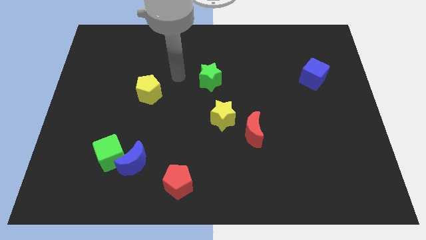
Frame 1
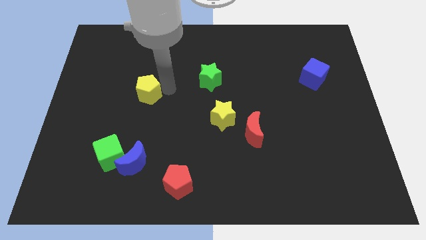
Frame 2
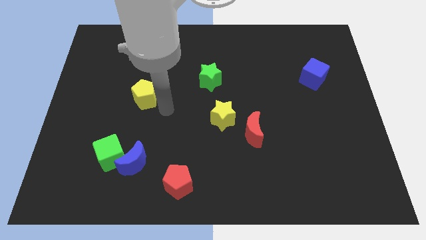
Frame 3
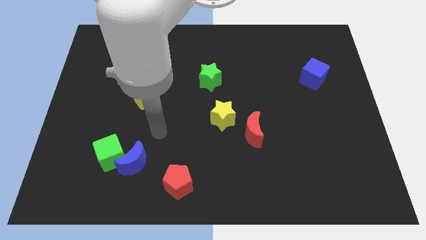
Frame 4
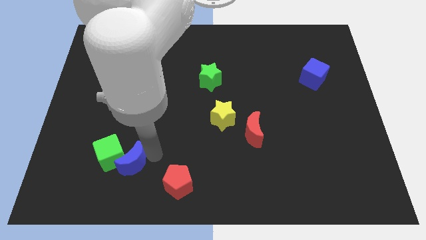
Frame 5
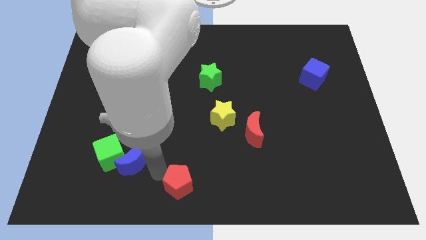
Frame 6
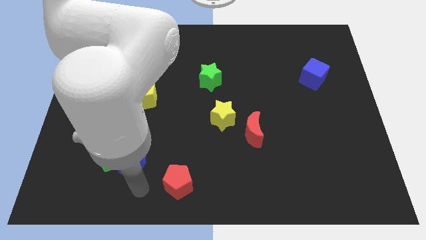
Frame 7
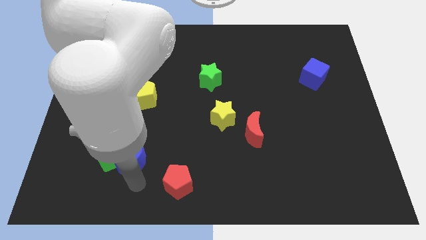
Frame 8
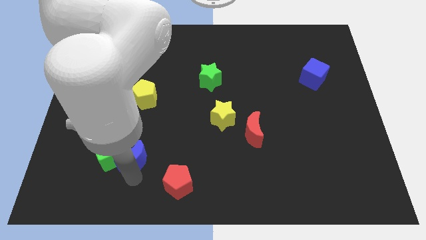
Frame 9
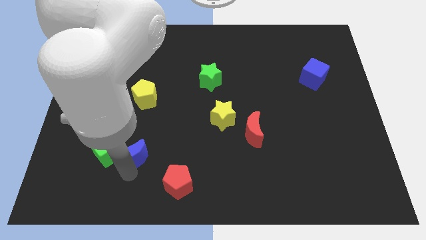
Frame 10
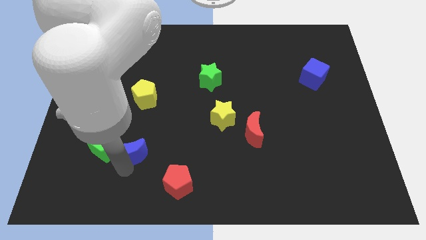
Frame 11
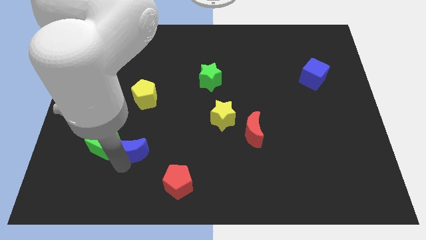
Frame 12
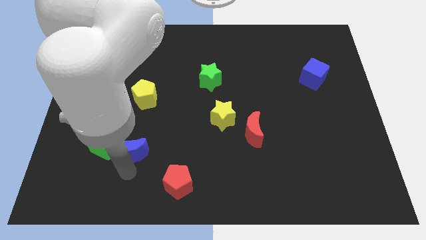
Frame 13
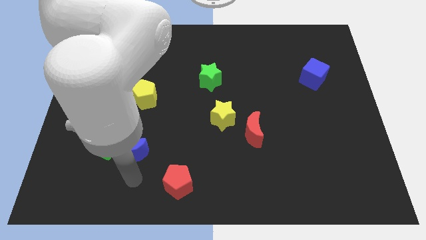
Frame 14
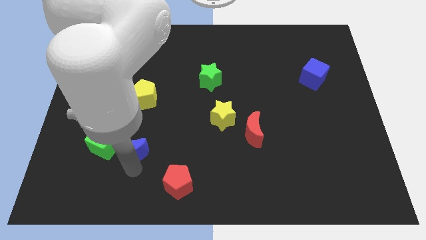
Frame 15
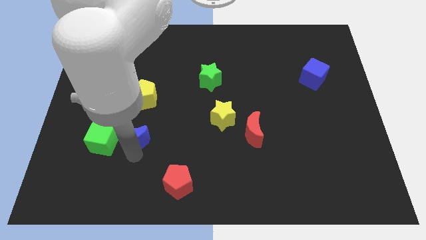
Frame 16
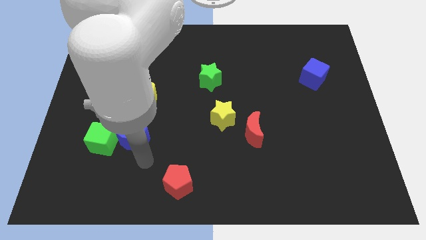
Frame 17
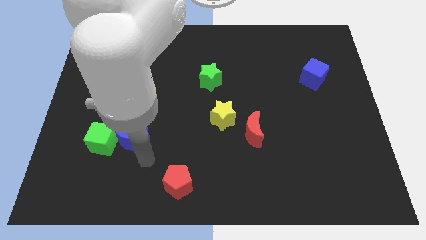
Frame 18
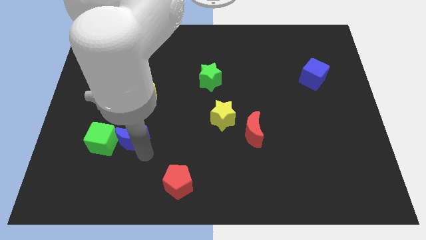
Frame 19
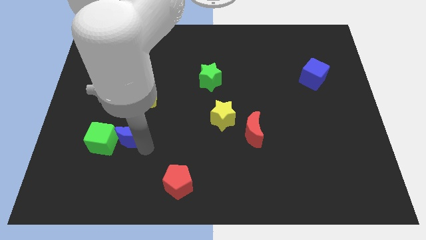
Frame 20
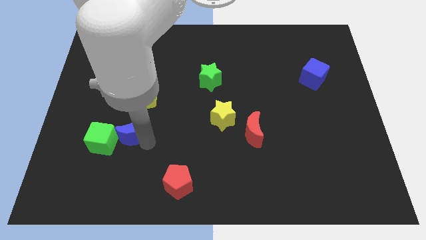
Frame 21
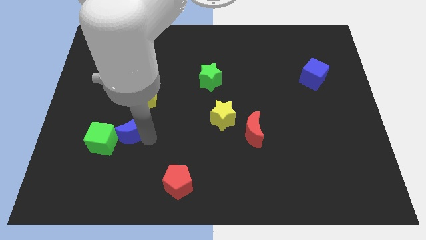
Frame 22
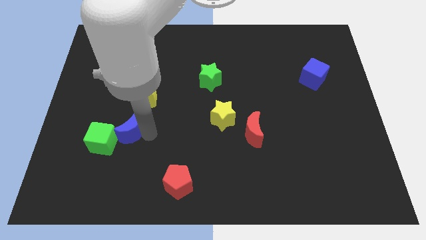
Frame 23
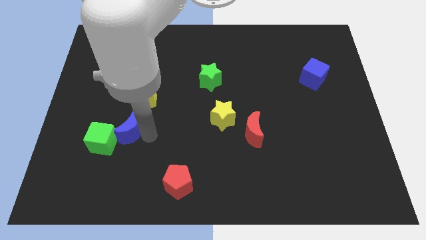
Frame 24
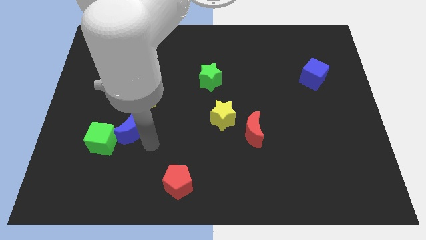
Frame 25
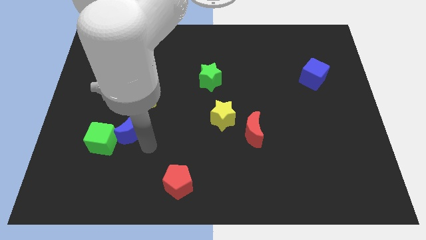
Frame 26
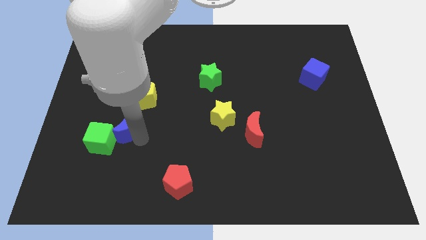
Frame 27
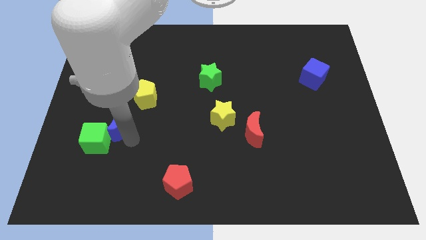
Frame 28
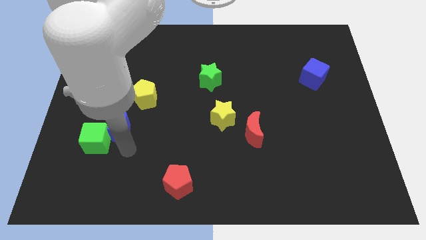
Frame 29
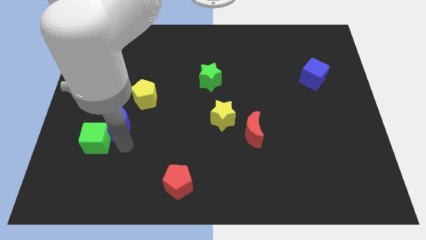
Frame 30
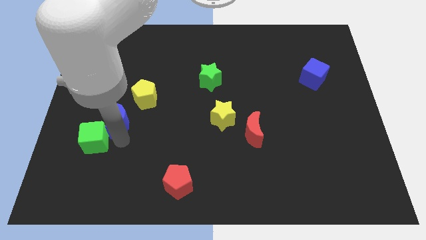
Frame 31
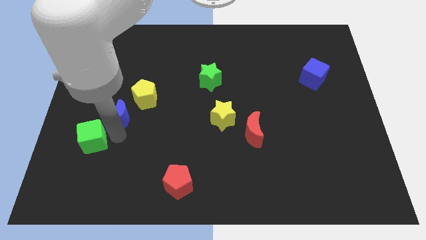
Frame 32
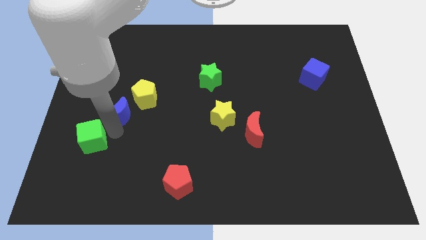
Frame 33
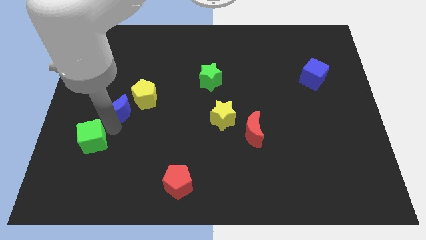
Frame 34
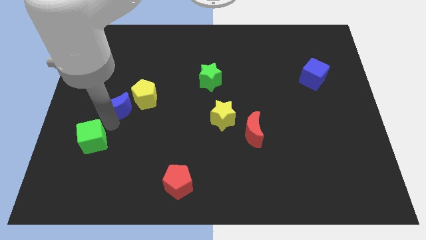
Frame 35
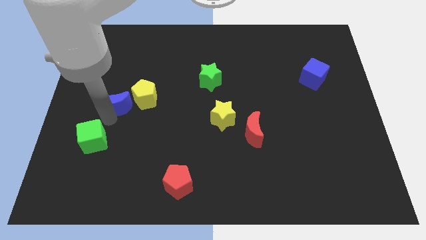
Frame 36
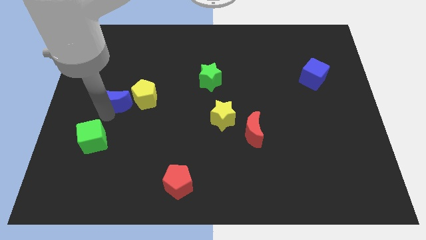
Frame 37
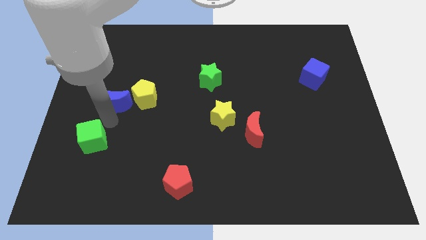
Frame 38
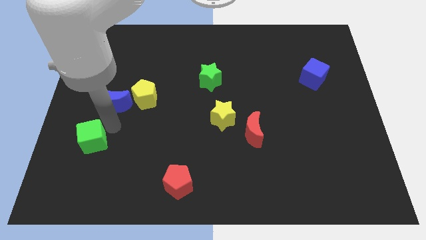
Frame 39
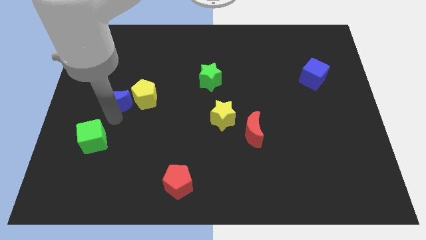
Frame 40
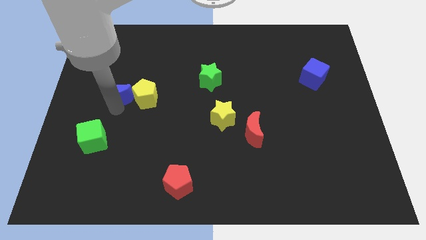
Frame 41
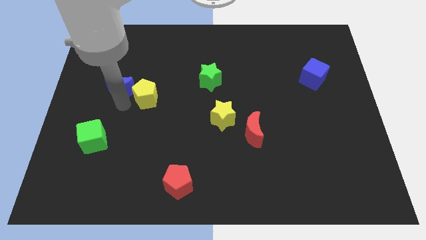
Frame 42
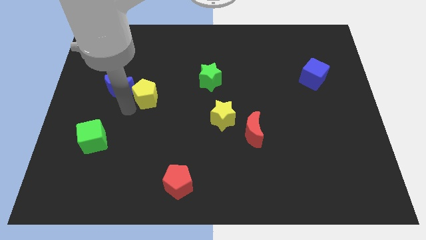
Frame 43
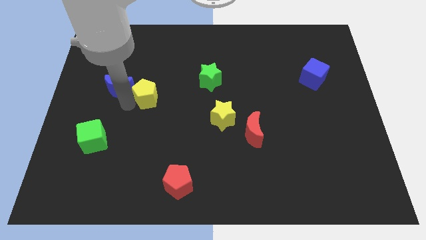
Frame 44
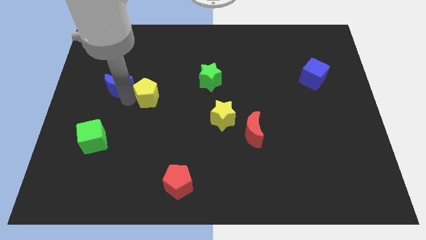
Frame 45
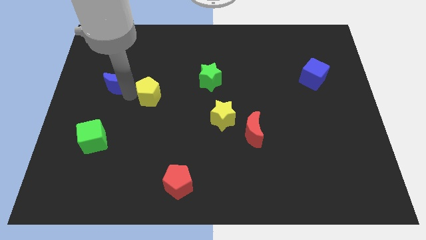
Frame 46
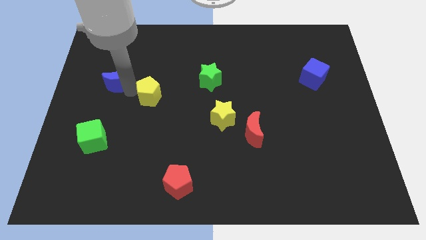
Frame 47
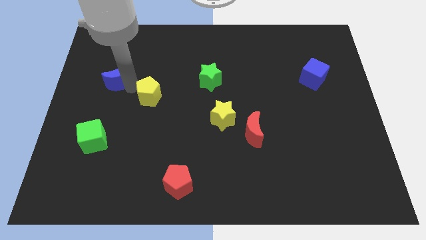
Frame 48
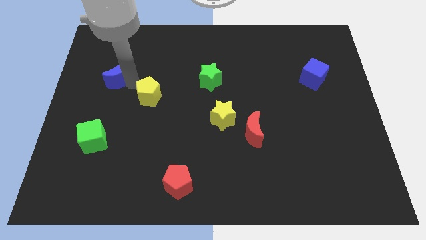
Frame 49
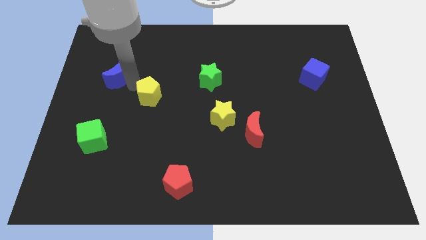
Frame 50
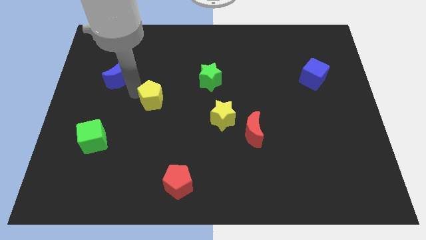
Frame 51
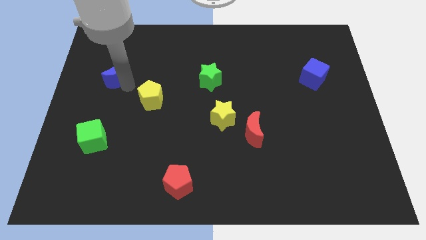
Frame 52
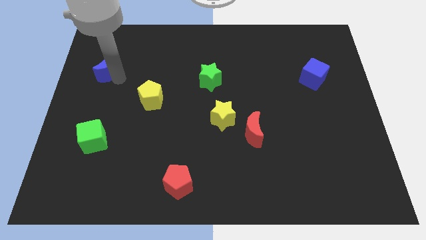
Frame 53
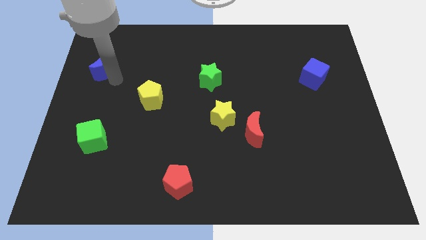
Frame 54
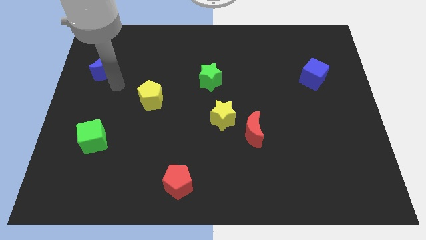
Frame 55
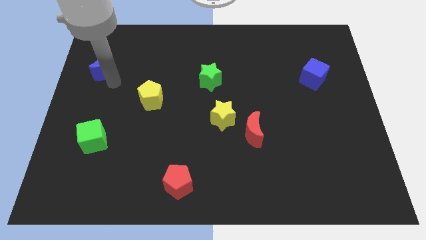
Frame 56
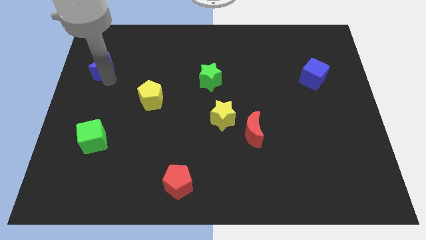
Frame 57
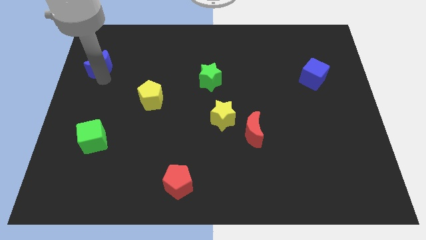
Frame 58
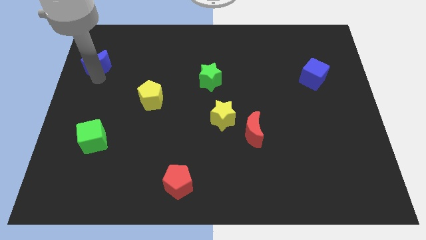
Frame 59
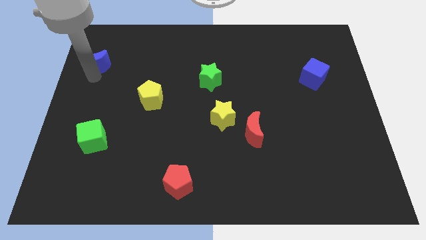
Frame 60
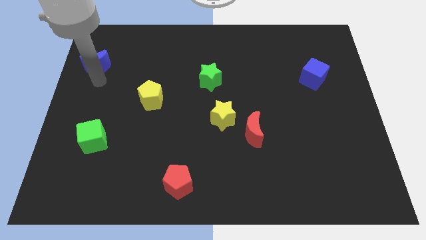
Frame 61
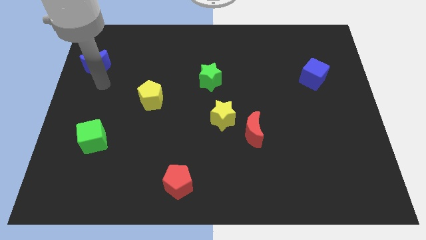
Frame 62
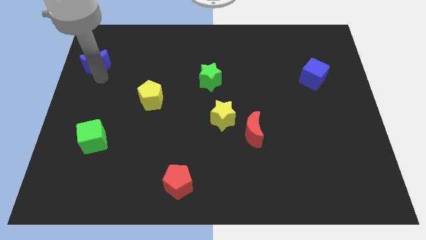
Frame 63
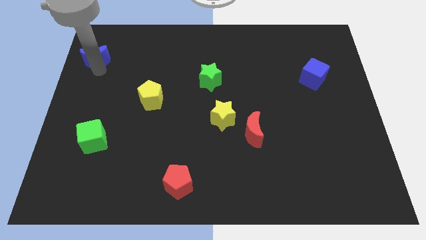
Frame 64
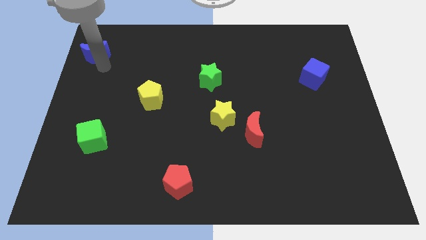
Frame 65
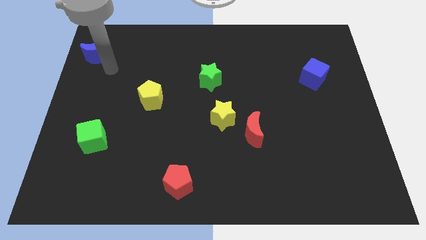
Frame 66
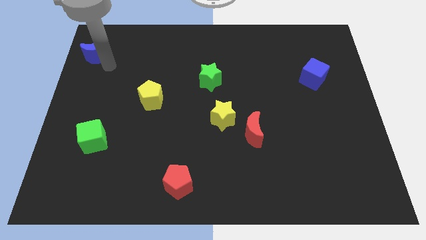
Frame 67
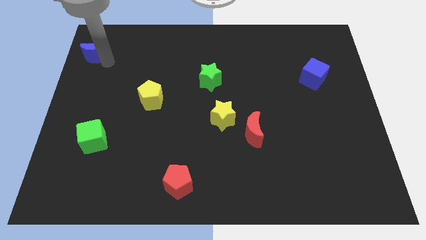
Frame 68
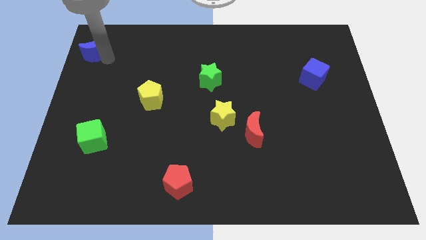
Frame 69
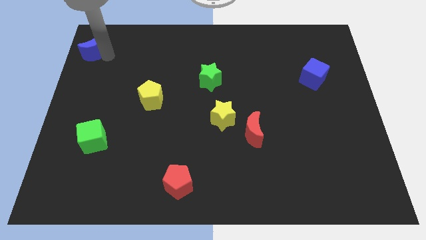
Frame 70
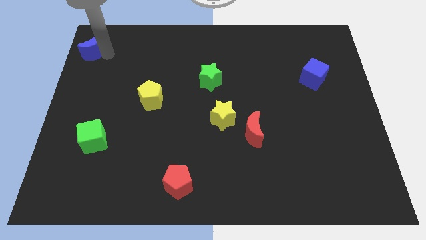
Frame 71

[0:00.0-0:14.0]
move the blue moon to the top left
